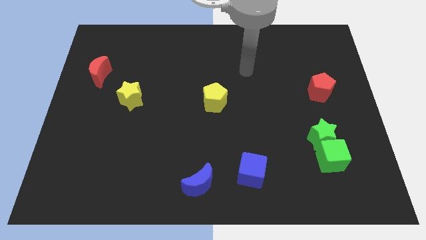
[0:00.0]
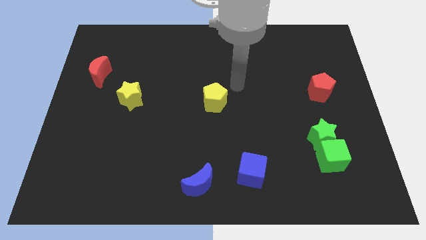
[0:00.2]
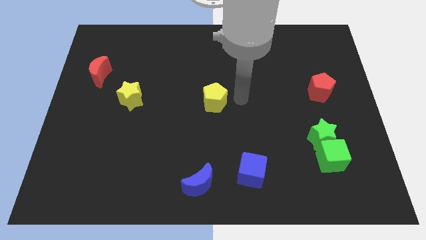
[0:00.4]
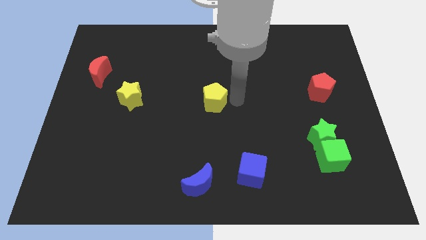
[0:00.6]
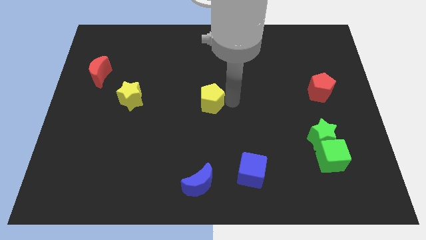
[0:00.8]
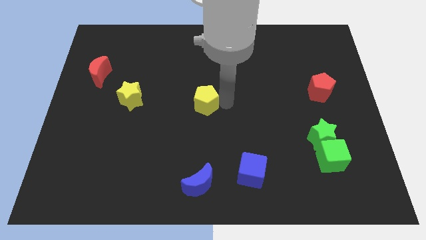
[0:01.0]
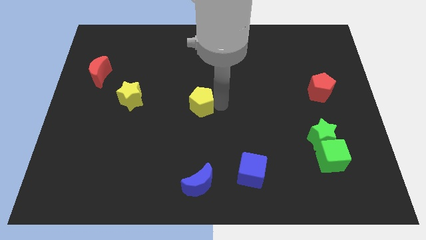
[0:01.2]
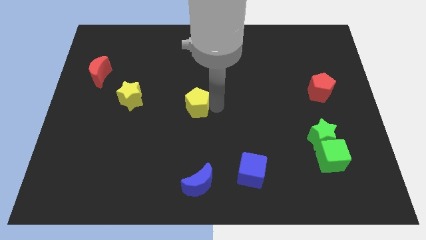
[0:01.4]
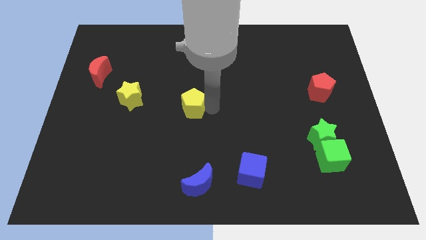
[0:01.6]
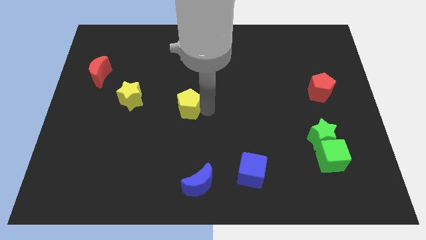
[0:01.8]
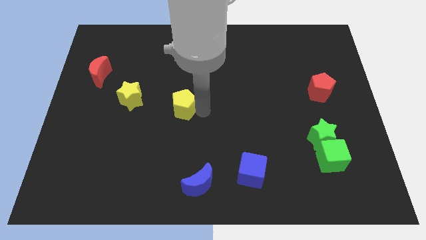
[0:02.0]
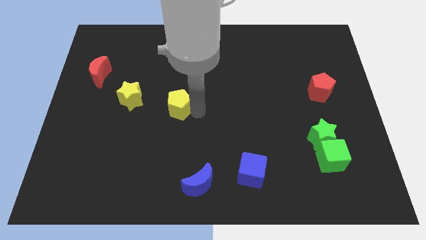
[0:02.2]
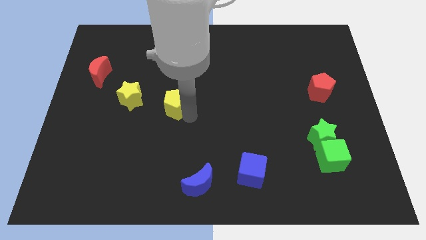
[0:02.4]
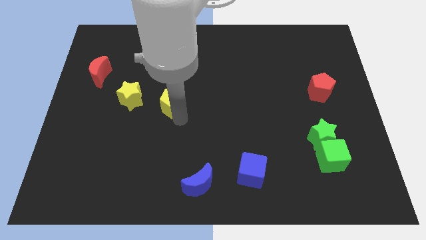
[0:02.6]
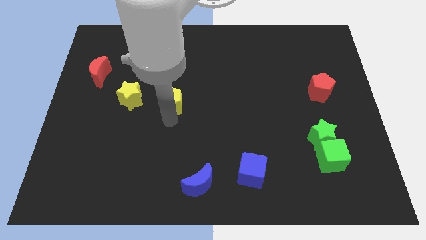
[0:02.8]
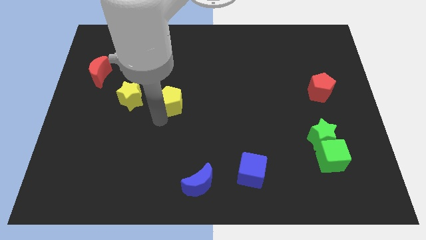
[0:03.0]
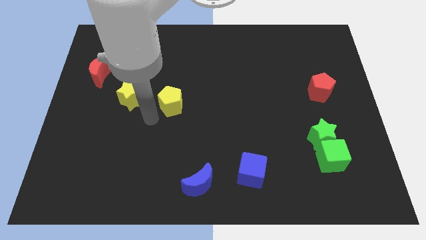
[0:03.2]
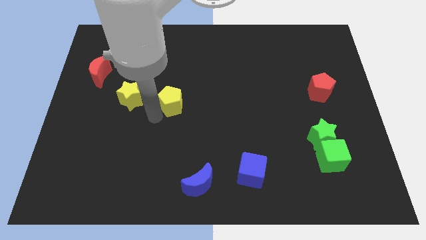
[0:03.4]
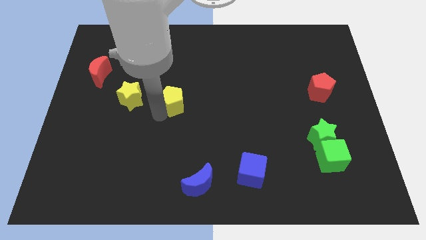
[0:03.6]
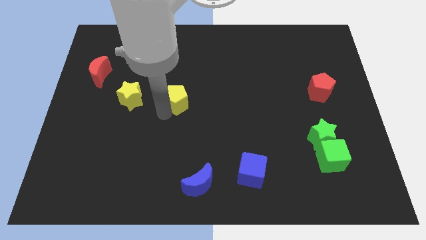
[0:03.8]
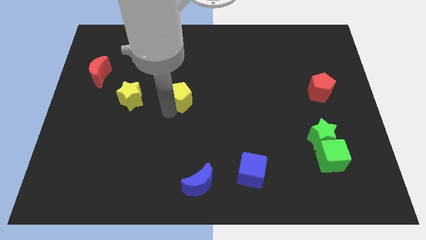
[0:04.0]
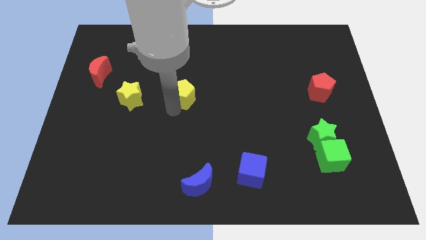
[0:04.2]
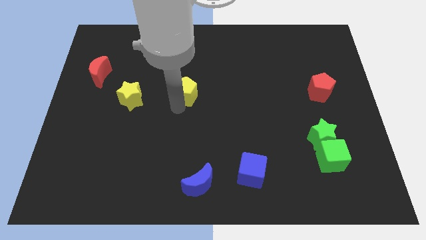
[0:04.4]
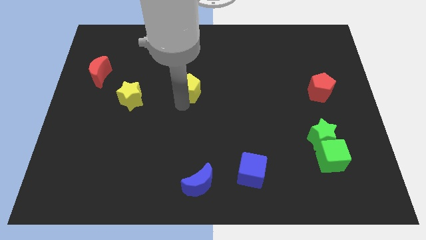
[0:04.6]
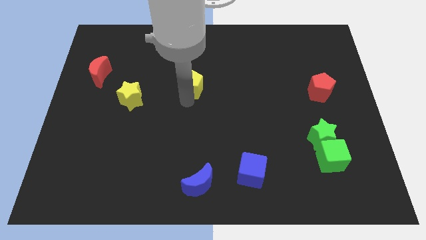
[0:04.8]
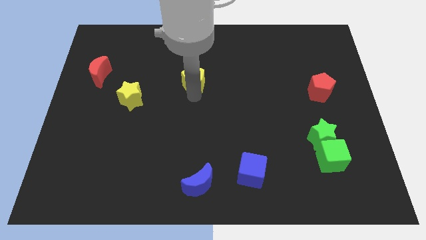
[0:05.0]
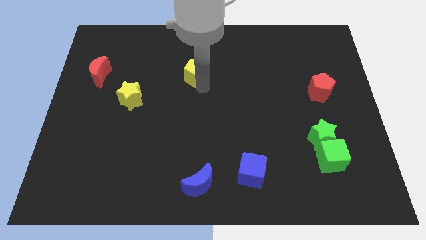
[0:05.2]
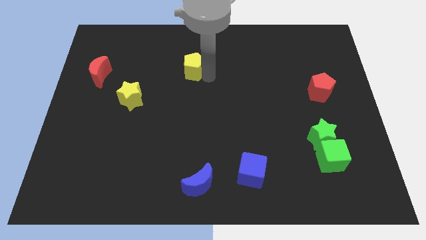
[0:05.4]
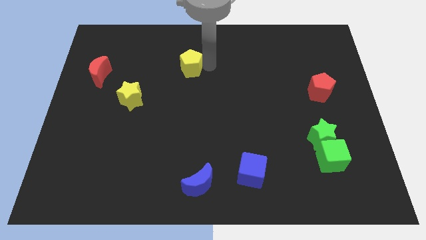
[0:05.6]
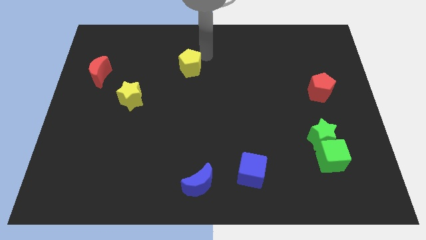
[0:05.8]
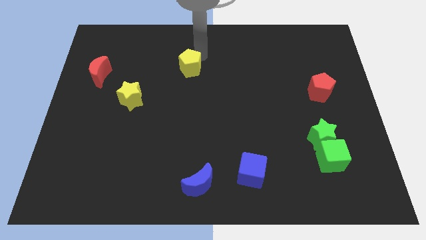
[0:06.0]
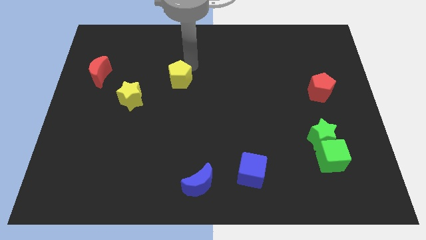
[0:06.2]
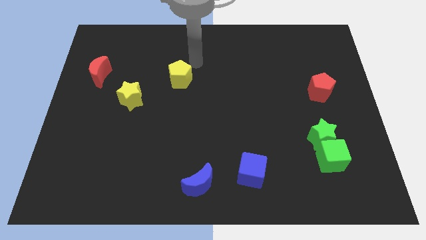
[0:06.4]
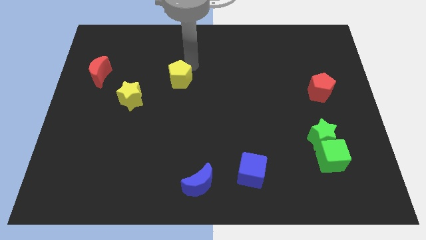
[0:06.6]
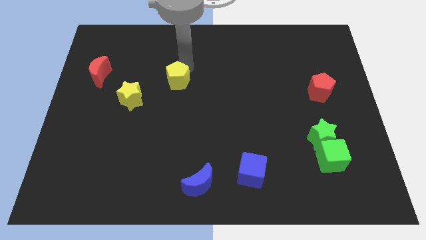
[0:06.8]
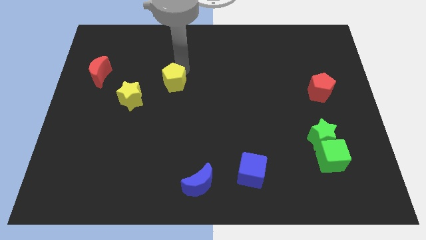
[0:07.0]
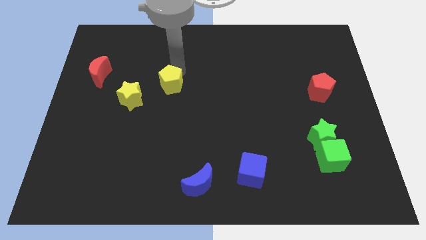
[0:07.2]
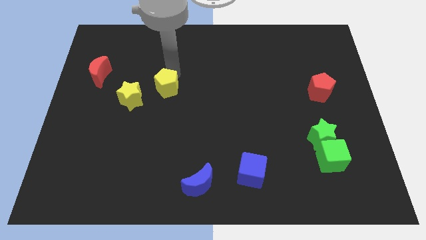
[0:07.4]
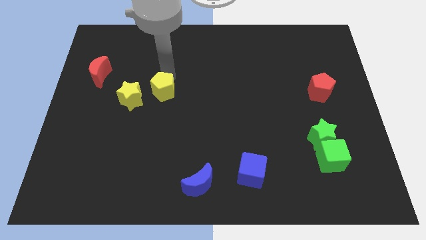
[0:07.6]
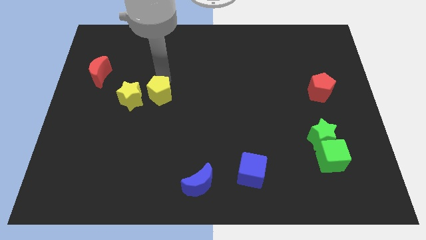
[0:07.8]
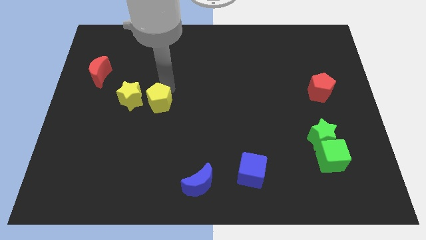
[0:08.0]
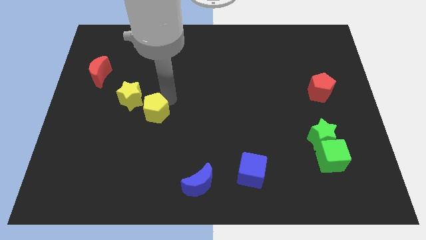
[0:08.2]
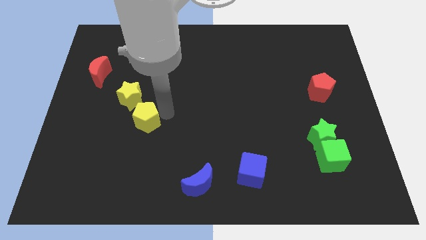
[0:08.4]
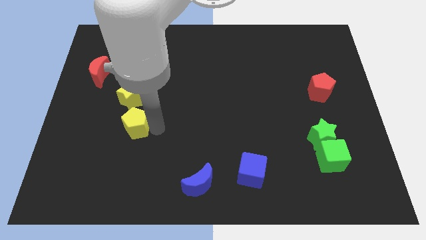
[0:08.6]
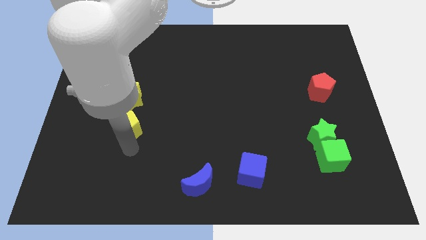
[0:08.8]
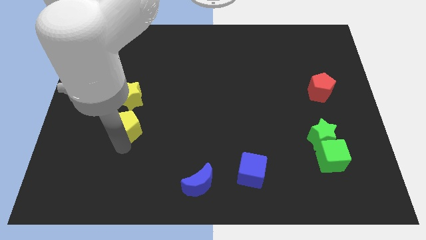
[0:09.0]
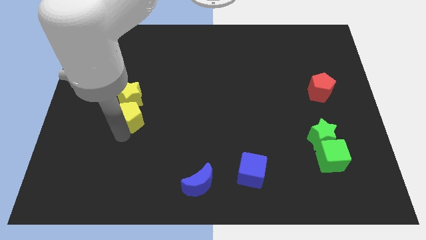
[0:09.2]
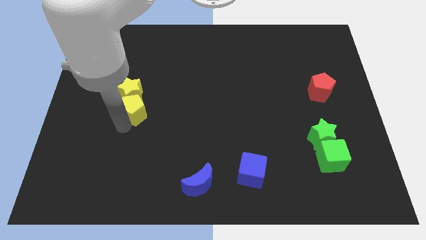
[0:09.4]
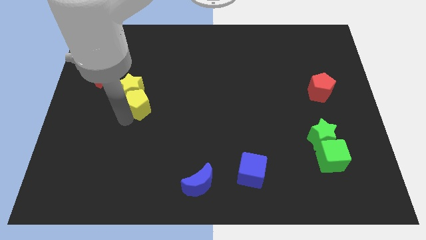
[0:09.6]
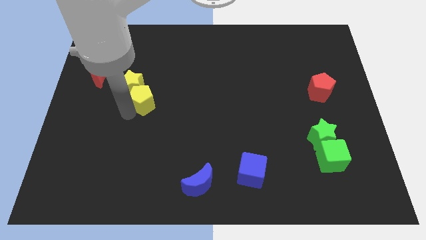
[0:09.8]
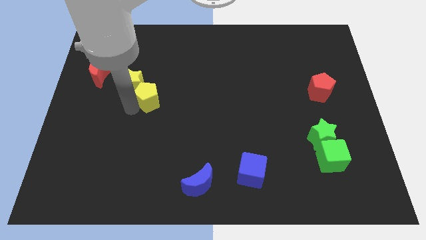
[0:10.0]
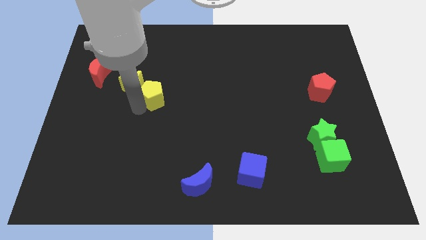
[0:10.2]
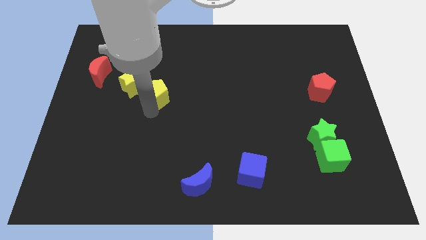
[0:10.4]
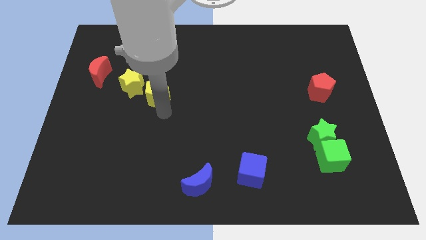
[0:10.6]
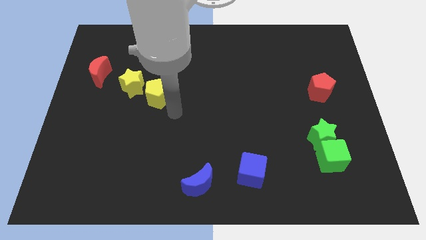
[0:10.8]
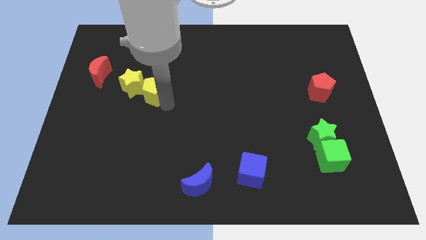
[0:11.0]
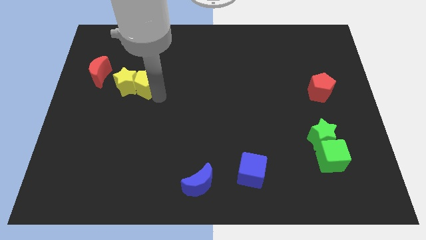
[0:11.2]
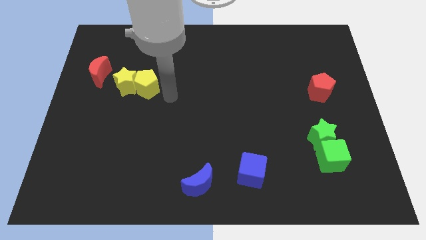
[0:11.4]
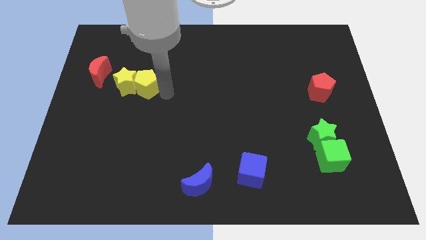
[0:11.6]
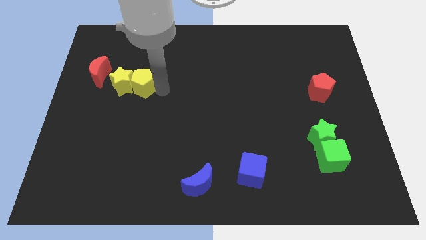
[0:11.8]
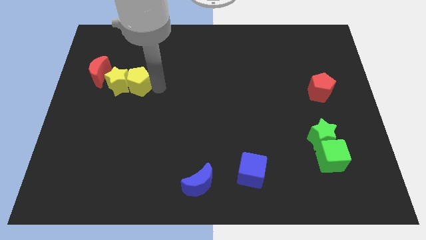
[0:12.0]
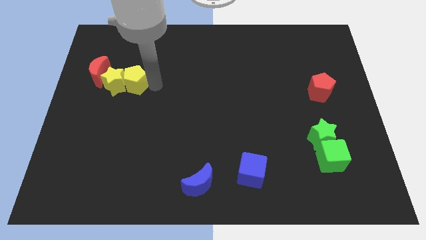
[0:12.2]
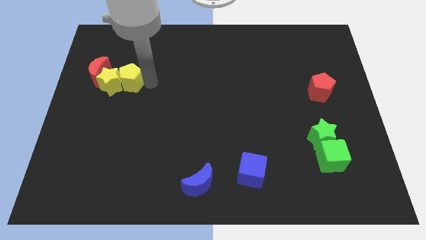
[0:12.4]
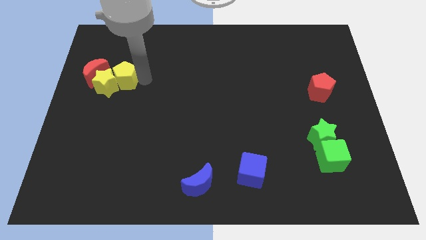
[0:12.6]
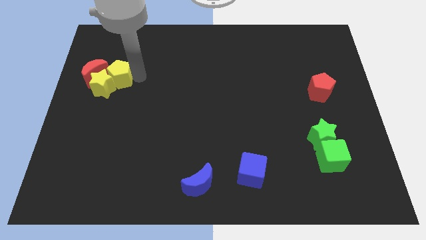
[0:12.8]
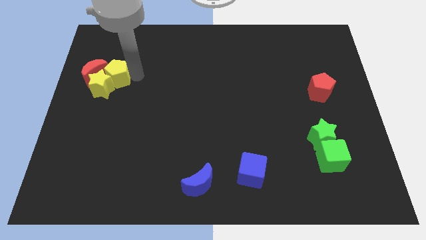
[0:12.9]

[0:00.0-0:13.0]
move the yellow pentagon towards the red moon

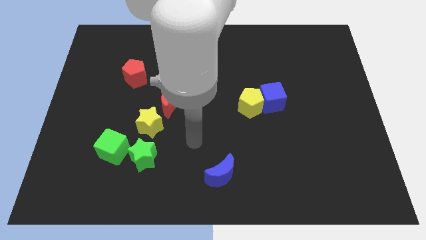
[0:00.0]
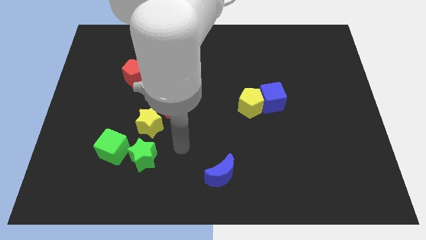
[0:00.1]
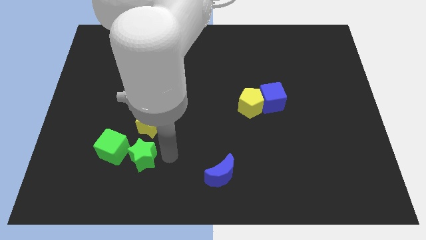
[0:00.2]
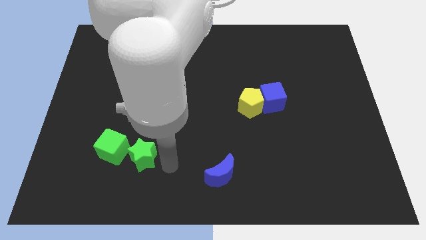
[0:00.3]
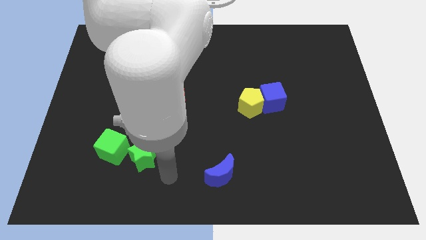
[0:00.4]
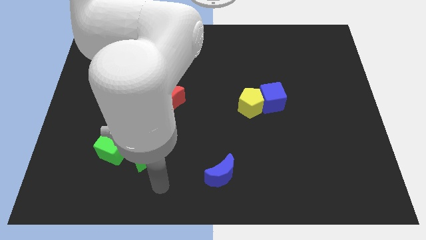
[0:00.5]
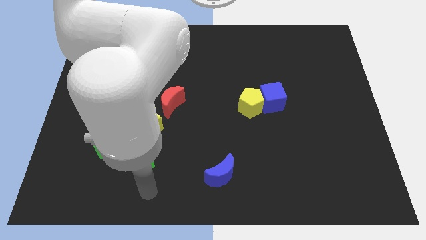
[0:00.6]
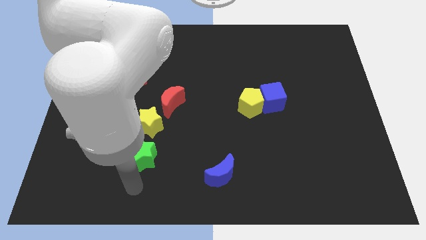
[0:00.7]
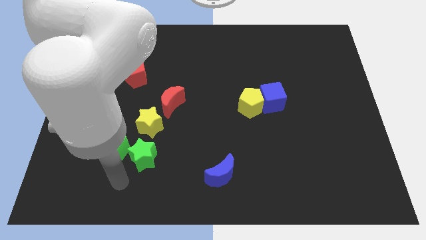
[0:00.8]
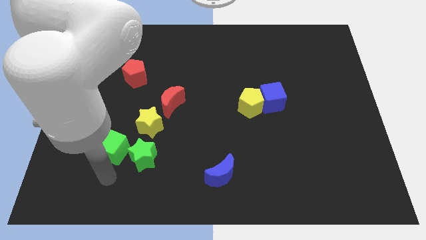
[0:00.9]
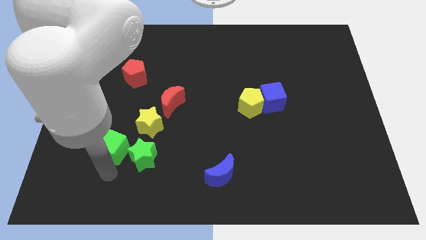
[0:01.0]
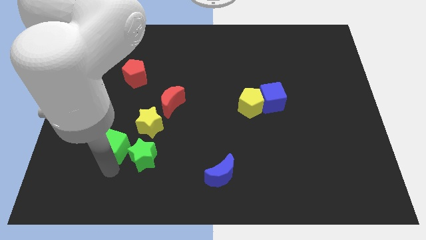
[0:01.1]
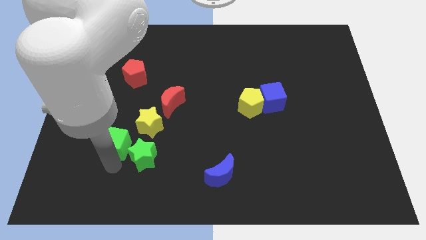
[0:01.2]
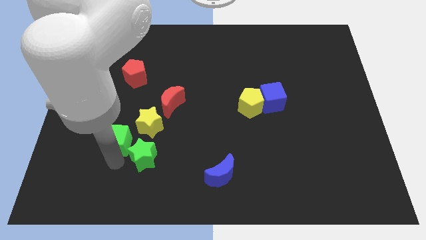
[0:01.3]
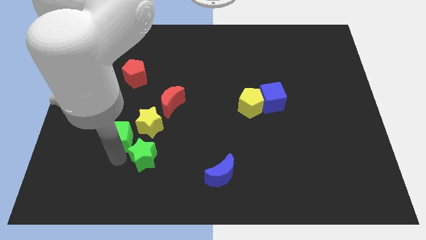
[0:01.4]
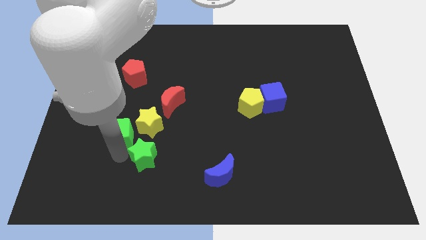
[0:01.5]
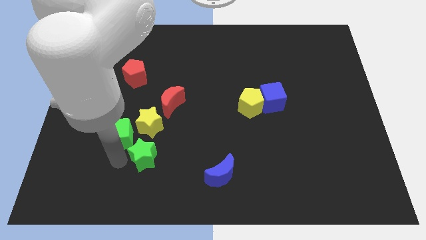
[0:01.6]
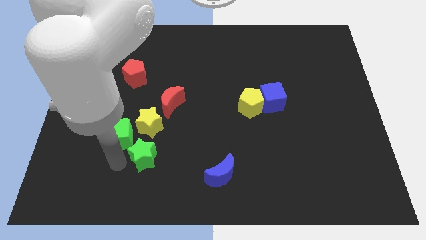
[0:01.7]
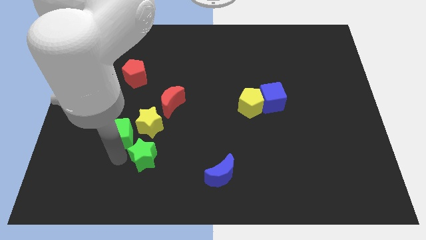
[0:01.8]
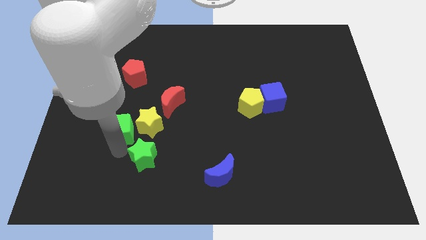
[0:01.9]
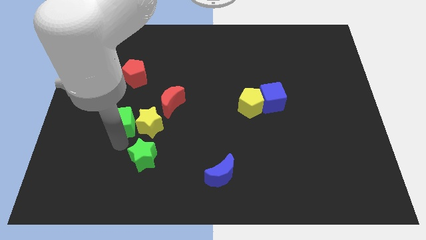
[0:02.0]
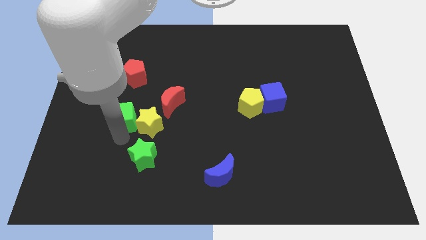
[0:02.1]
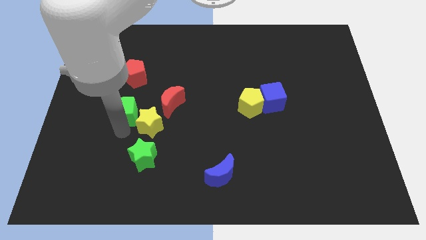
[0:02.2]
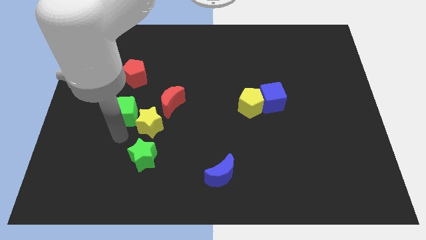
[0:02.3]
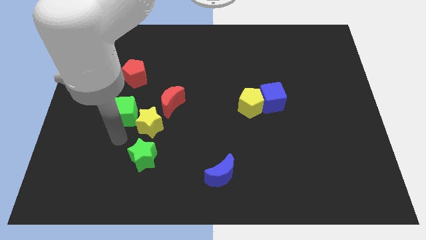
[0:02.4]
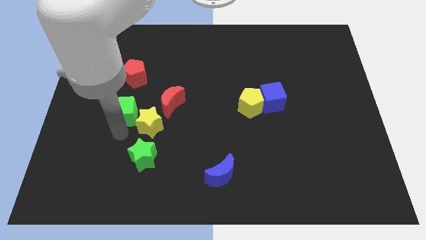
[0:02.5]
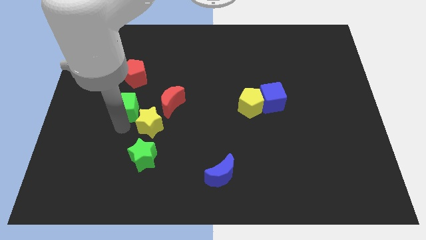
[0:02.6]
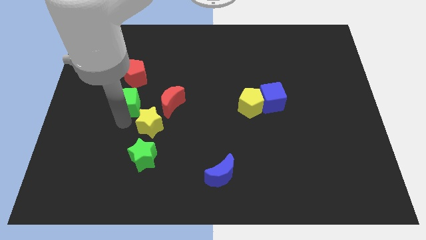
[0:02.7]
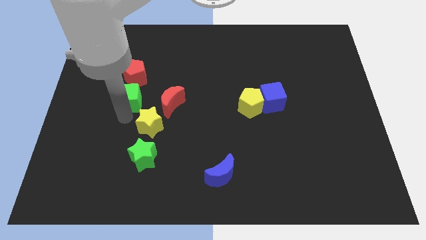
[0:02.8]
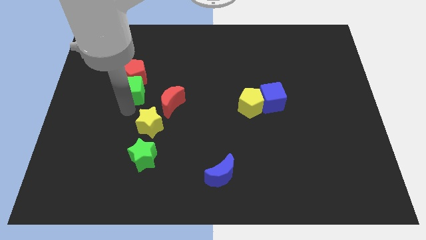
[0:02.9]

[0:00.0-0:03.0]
slide the green cube next to the red pentagon
